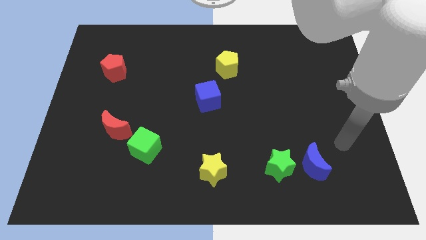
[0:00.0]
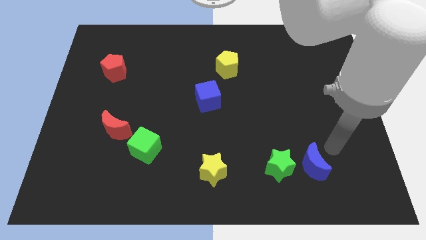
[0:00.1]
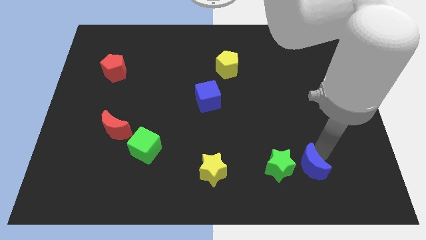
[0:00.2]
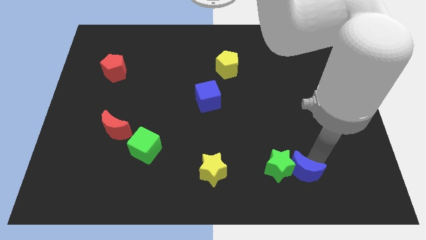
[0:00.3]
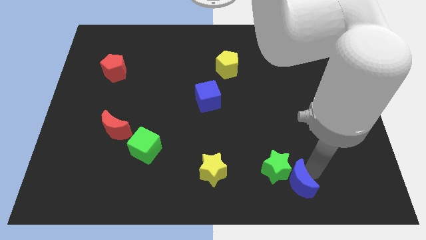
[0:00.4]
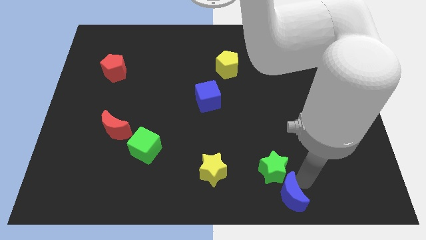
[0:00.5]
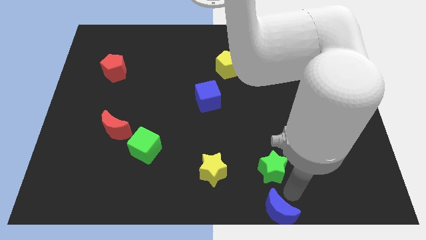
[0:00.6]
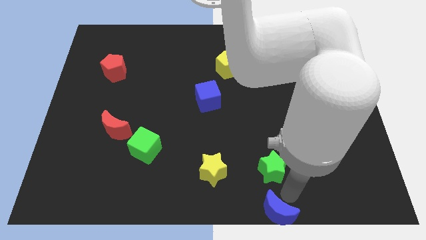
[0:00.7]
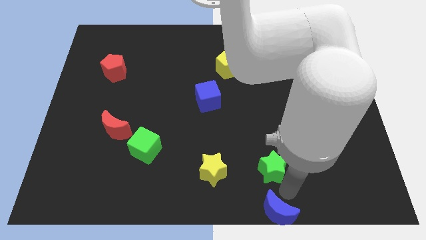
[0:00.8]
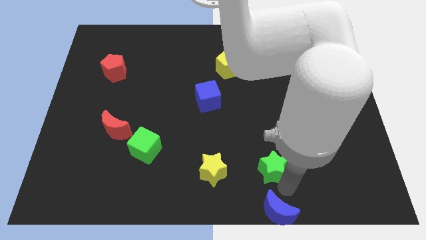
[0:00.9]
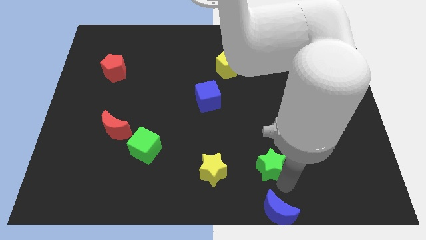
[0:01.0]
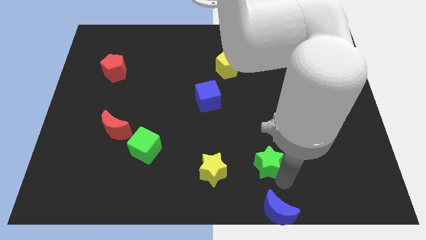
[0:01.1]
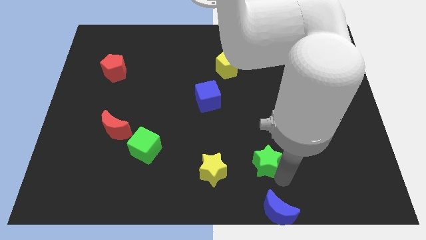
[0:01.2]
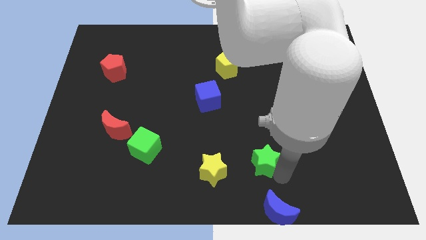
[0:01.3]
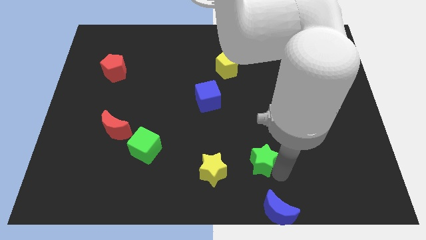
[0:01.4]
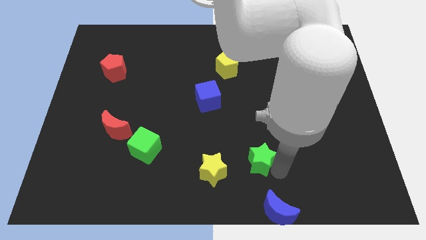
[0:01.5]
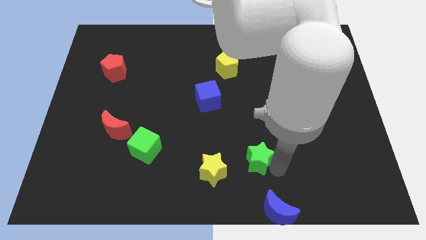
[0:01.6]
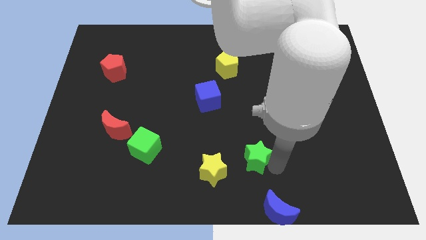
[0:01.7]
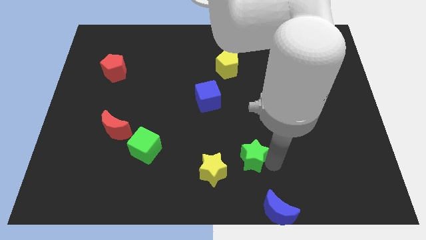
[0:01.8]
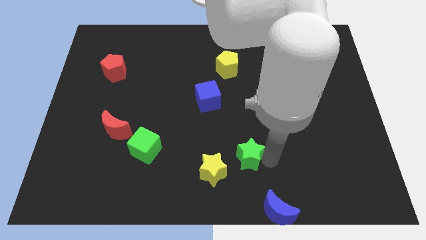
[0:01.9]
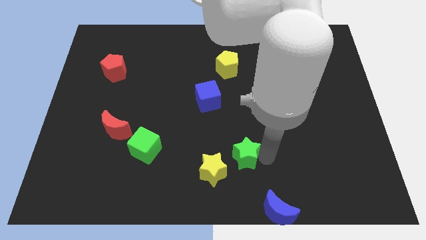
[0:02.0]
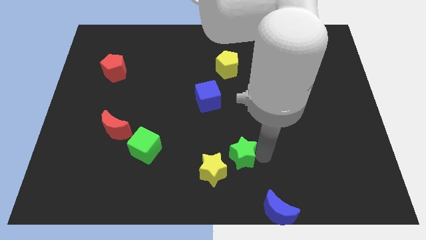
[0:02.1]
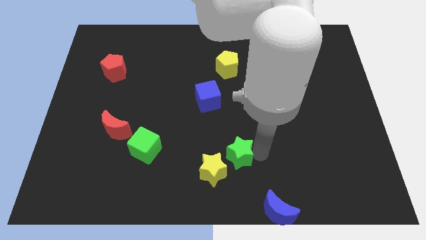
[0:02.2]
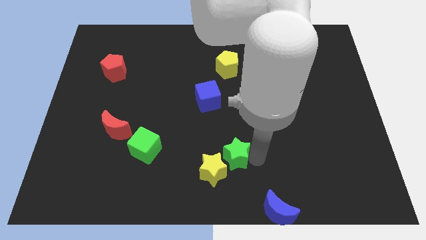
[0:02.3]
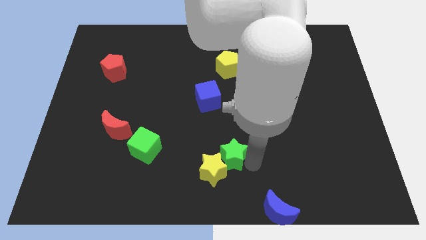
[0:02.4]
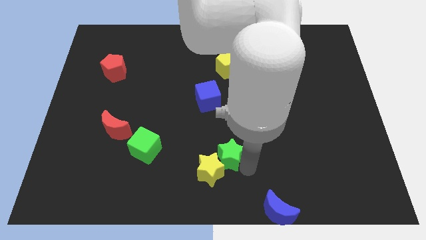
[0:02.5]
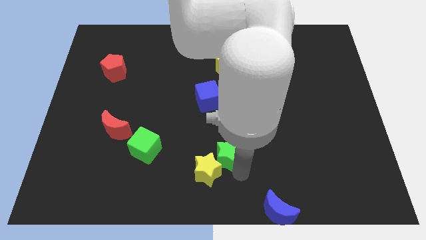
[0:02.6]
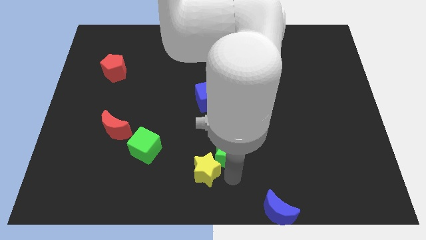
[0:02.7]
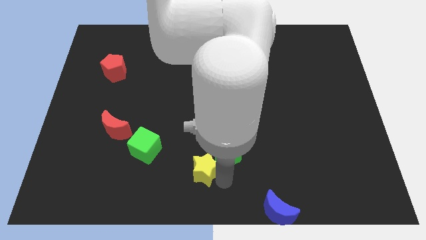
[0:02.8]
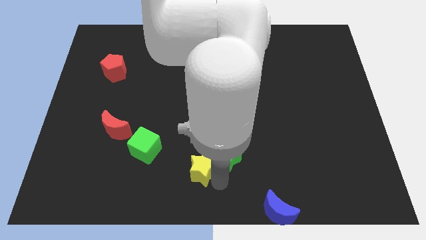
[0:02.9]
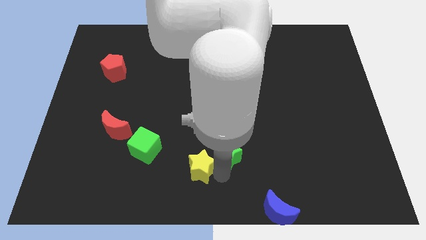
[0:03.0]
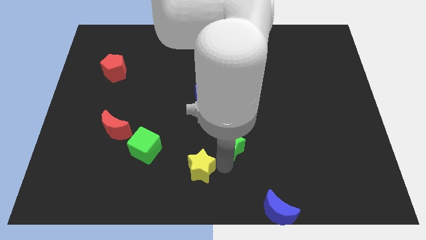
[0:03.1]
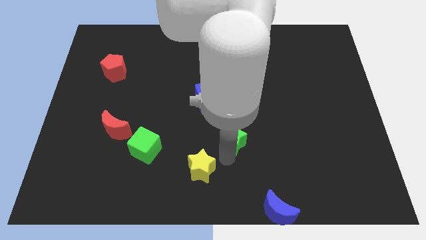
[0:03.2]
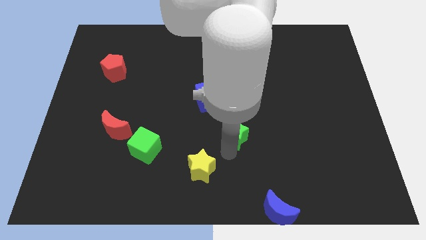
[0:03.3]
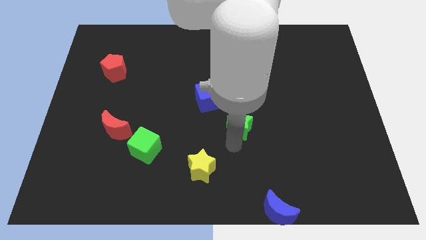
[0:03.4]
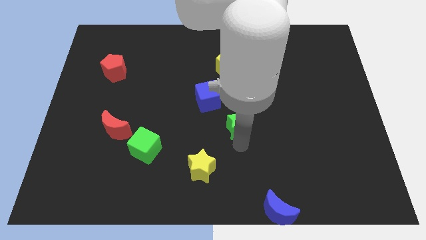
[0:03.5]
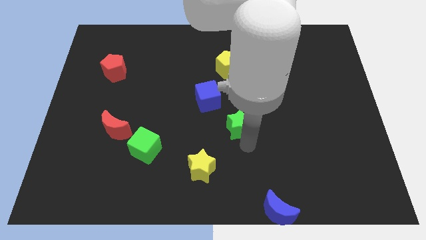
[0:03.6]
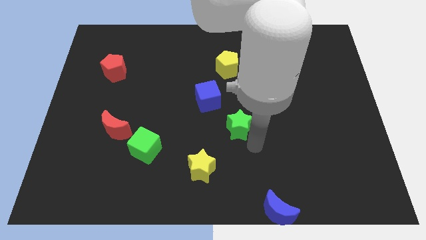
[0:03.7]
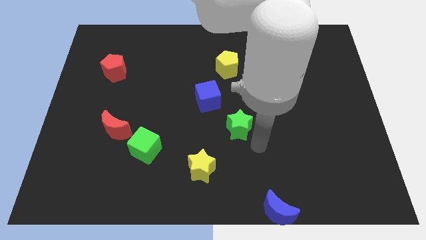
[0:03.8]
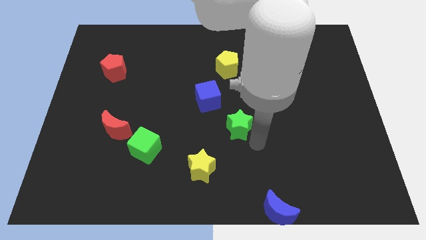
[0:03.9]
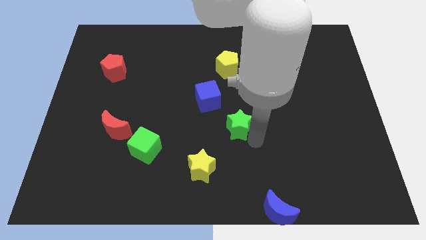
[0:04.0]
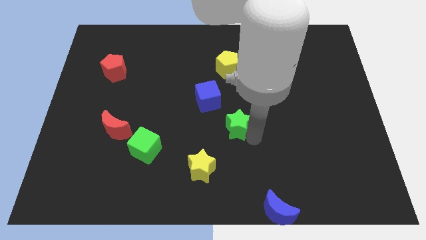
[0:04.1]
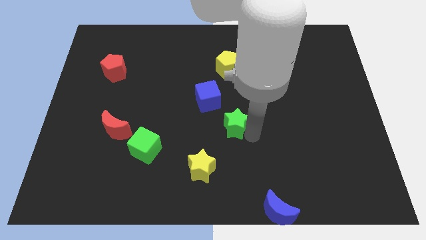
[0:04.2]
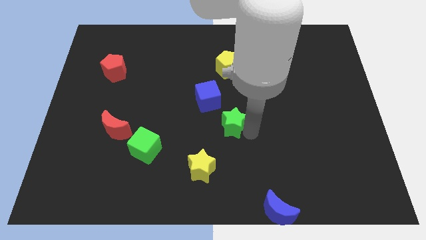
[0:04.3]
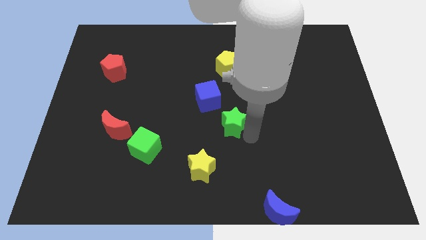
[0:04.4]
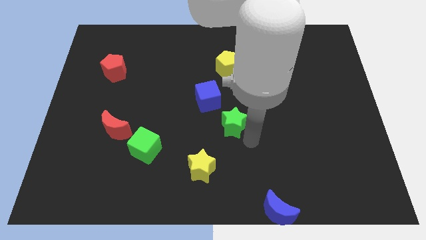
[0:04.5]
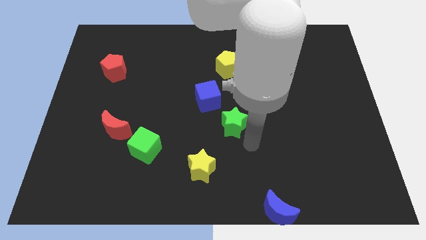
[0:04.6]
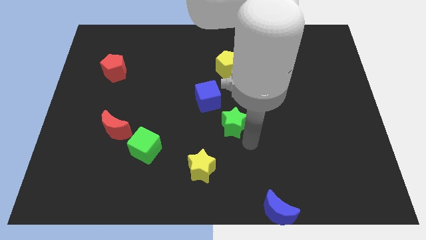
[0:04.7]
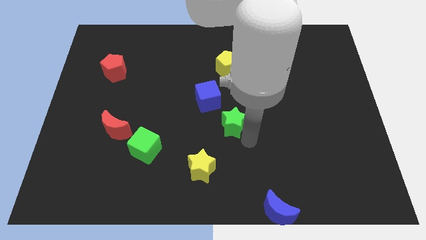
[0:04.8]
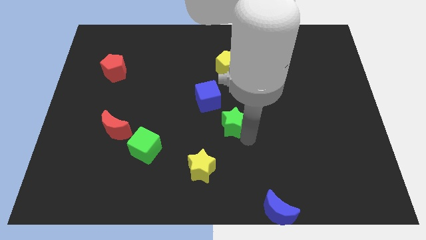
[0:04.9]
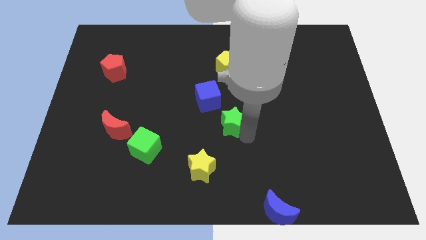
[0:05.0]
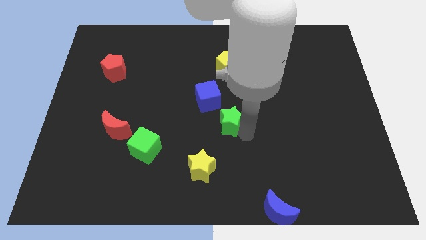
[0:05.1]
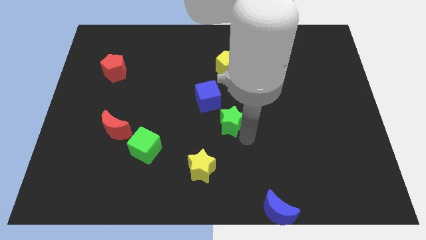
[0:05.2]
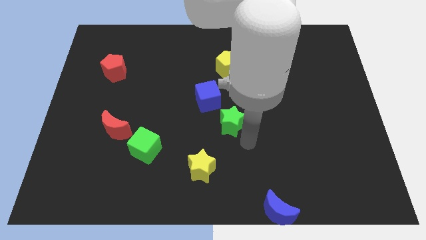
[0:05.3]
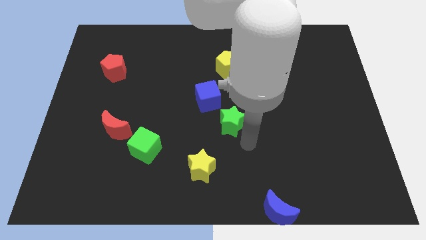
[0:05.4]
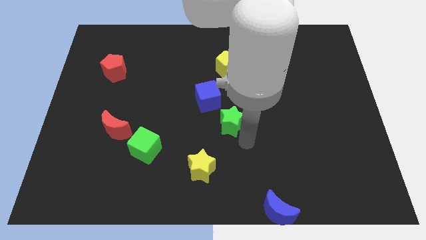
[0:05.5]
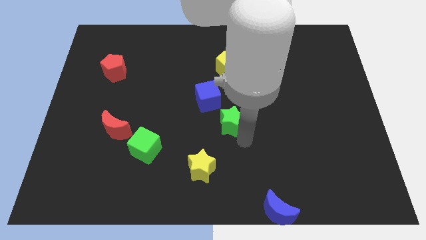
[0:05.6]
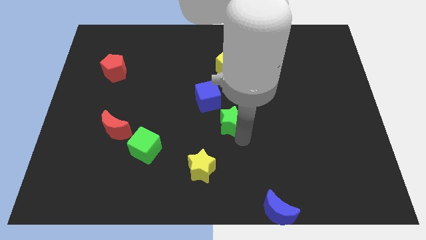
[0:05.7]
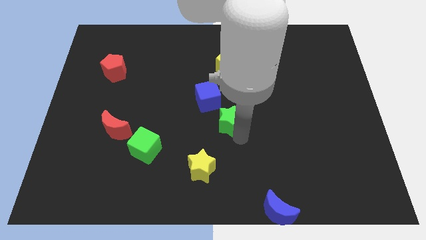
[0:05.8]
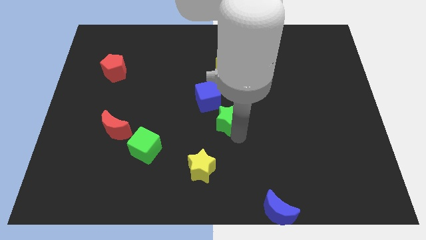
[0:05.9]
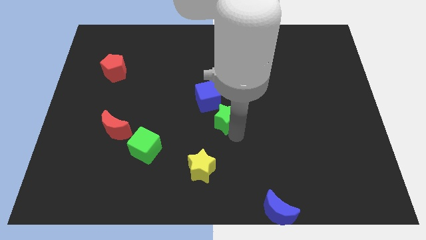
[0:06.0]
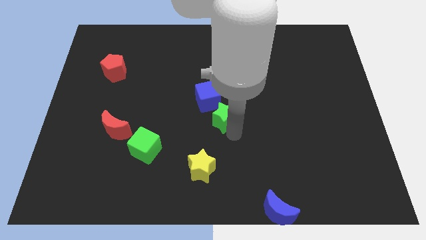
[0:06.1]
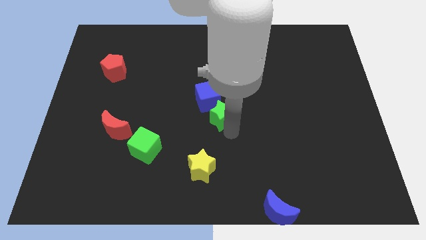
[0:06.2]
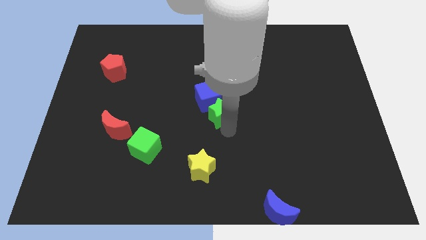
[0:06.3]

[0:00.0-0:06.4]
move the green star to the blue cube

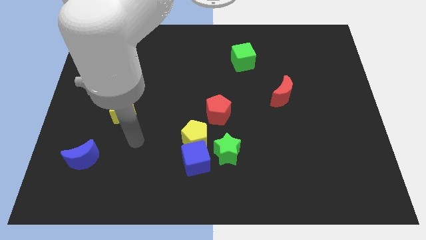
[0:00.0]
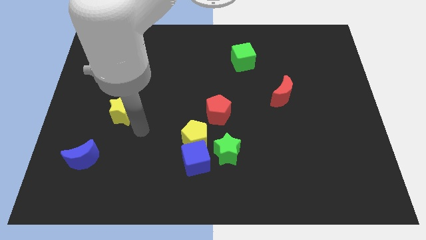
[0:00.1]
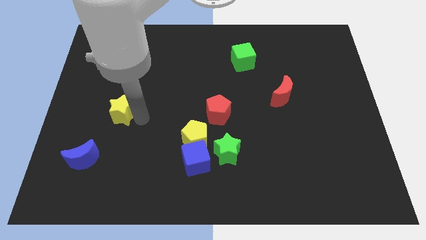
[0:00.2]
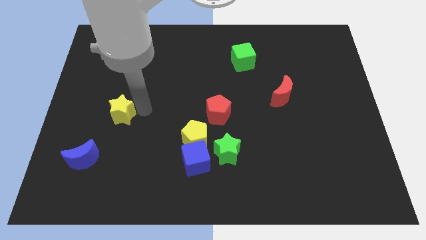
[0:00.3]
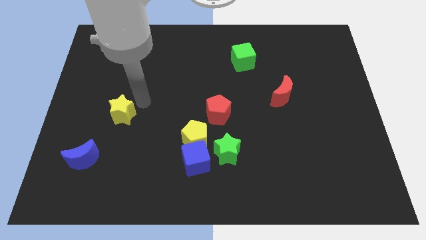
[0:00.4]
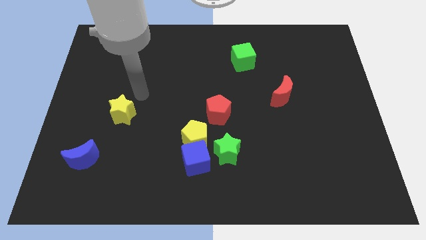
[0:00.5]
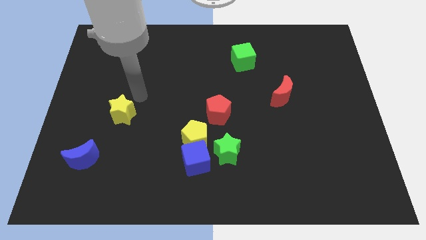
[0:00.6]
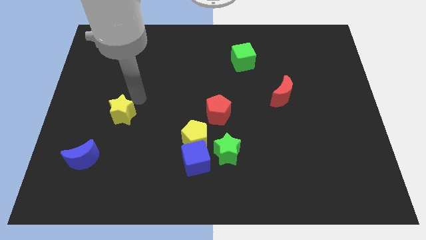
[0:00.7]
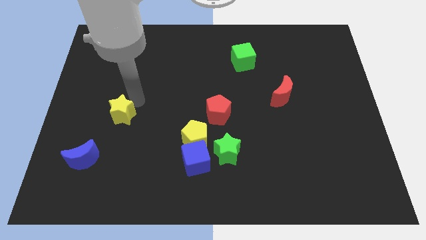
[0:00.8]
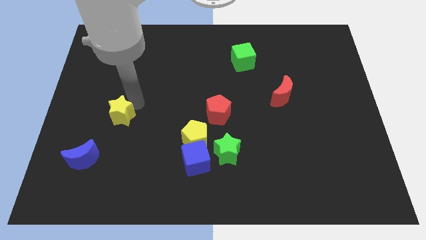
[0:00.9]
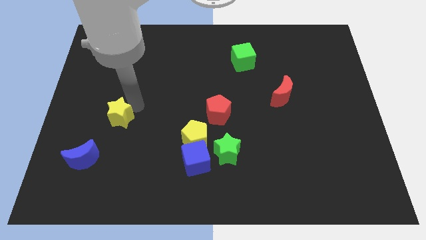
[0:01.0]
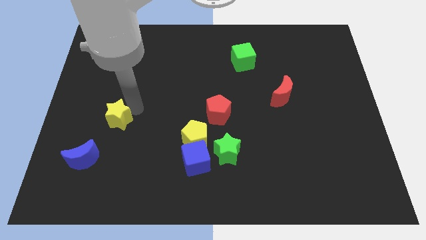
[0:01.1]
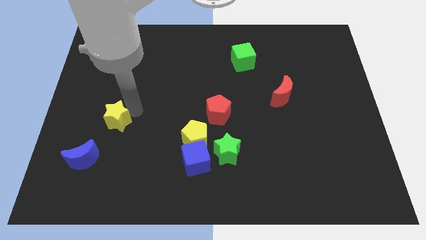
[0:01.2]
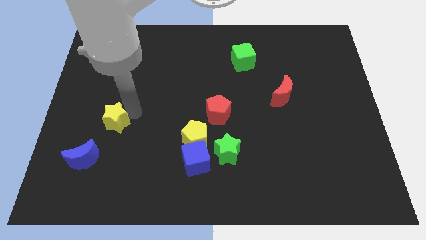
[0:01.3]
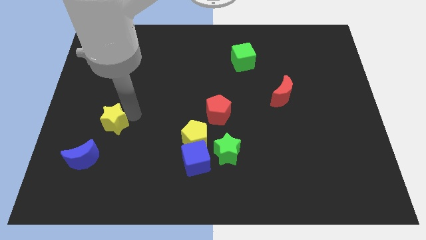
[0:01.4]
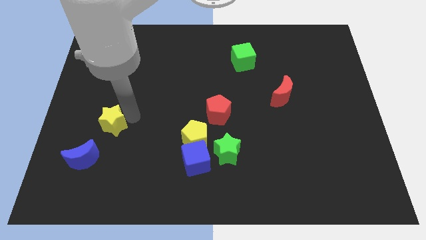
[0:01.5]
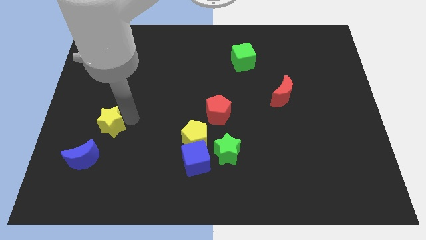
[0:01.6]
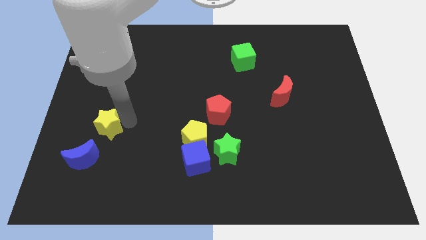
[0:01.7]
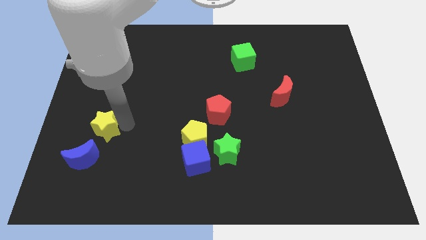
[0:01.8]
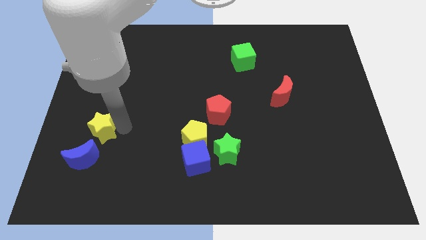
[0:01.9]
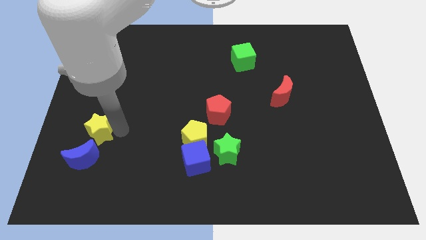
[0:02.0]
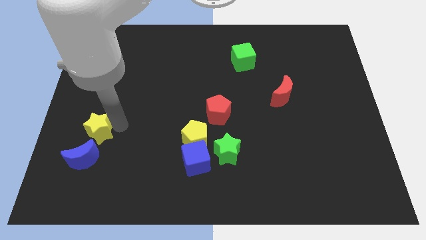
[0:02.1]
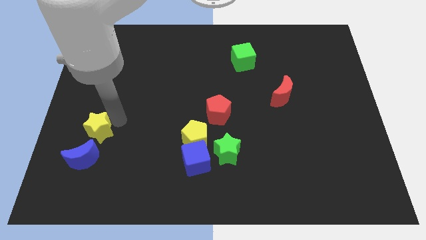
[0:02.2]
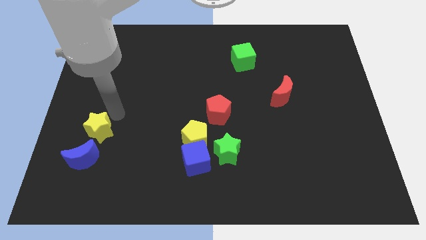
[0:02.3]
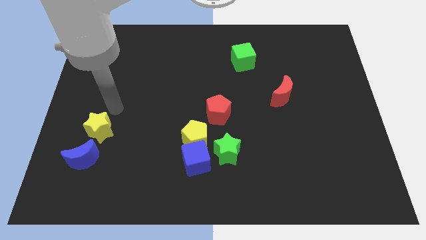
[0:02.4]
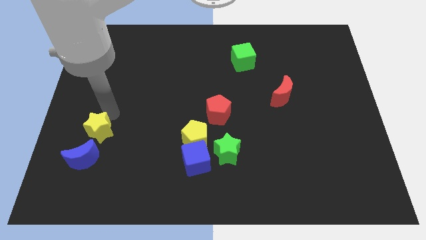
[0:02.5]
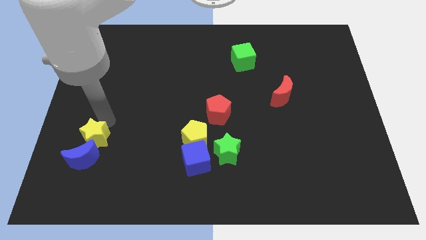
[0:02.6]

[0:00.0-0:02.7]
slide the yellow star next to the blue moon
